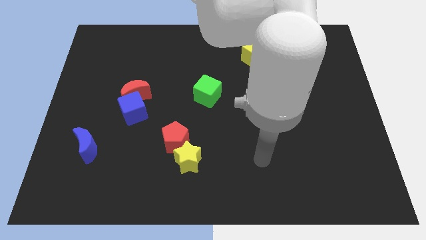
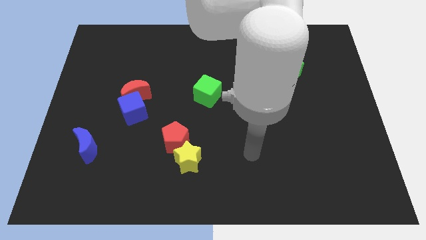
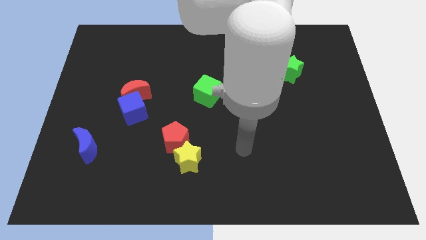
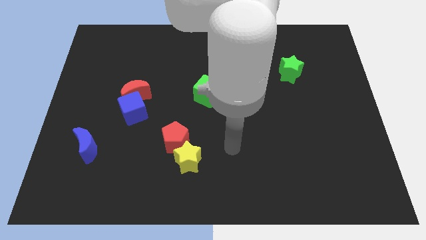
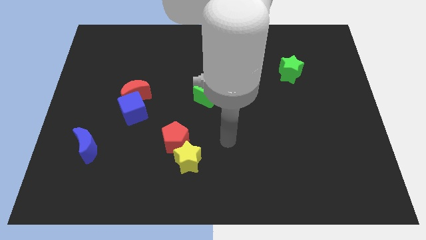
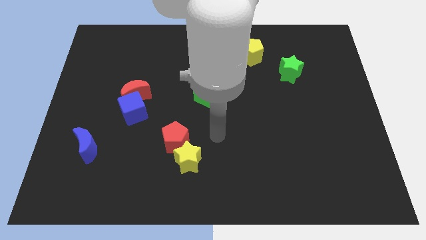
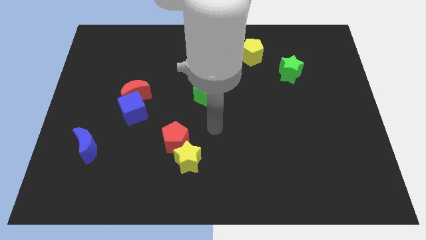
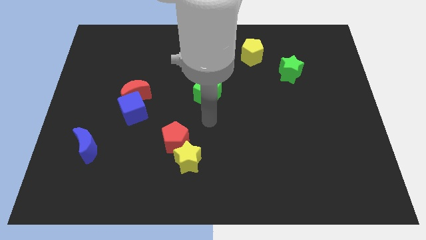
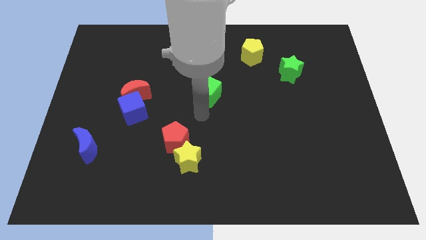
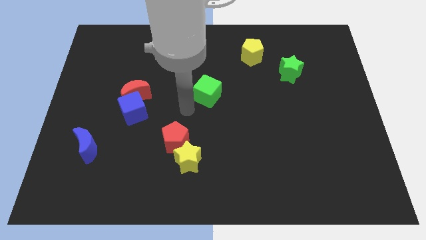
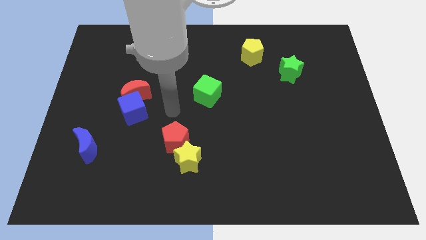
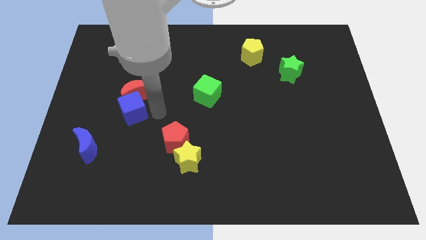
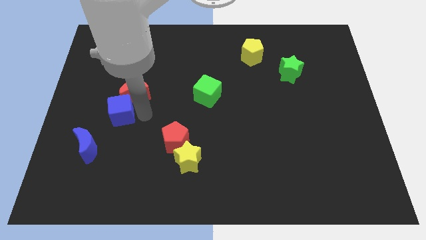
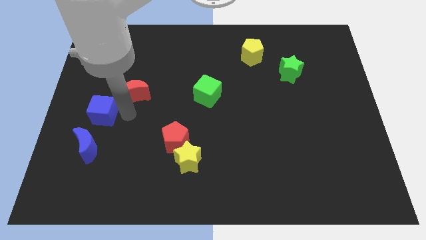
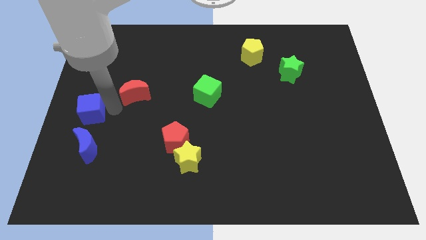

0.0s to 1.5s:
pull the red moon apart from the blue cube

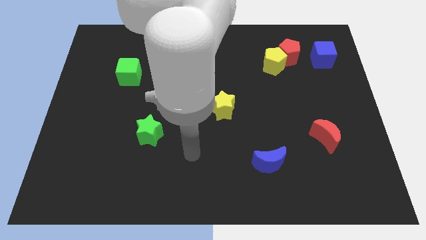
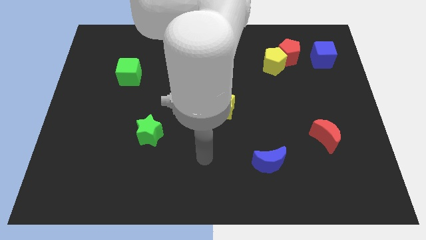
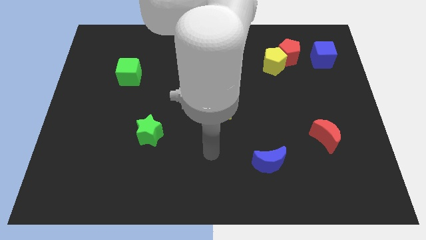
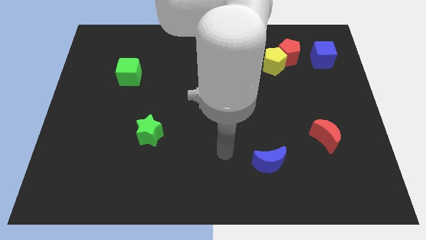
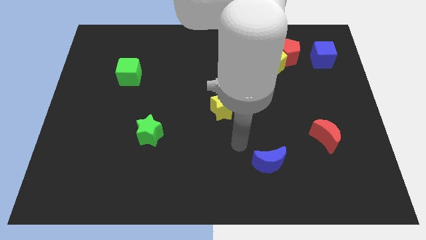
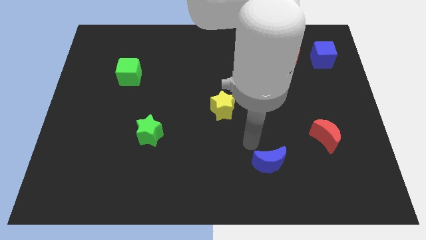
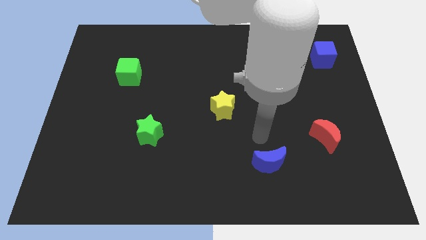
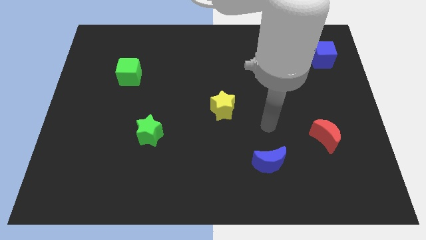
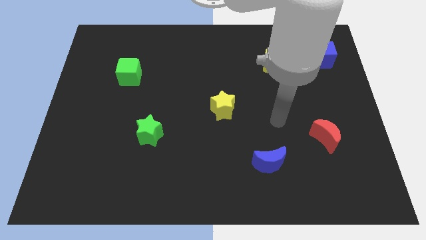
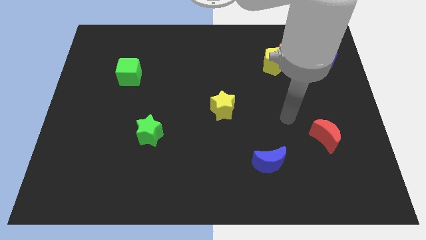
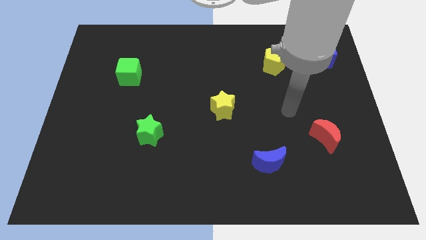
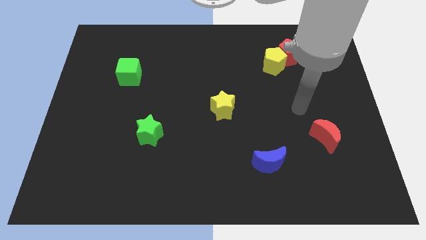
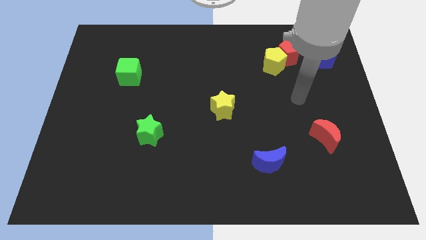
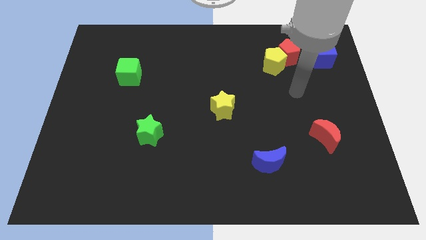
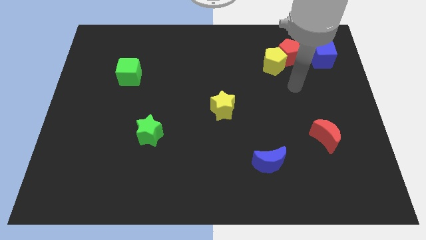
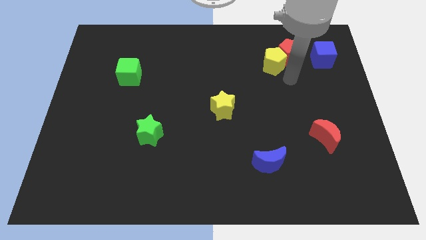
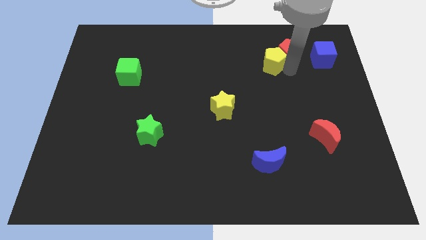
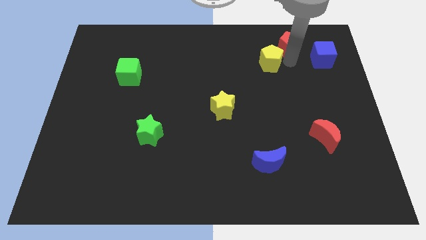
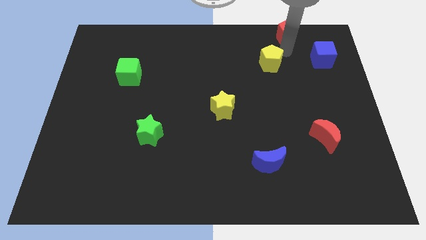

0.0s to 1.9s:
move the yellow pentagon away from the red pentagon

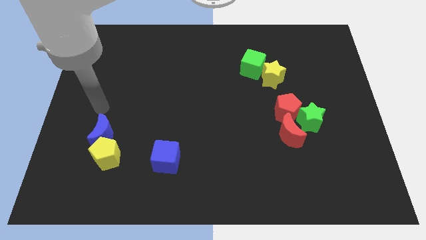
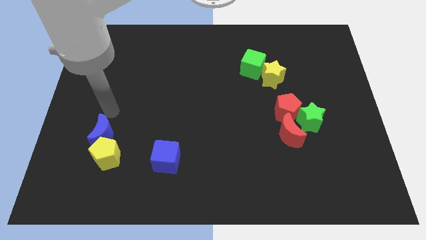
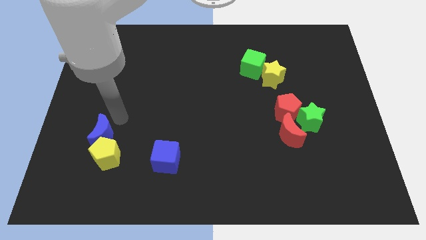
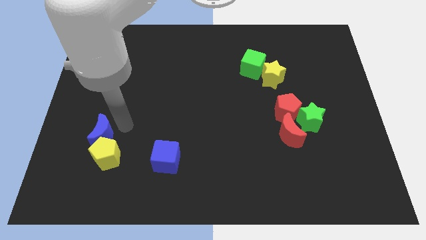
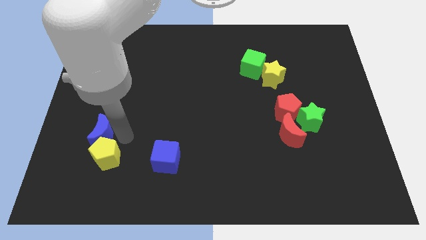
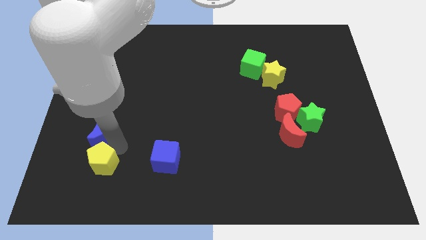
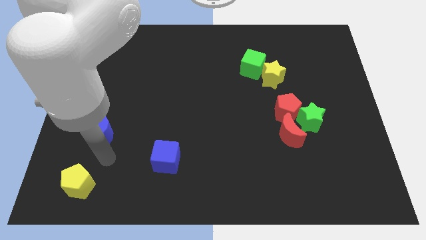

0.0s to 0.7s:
pull the blue moon apart from the yellow pentagon

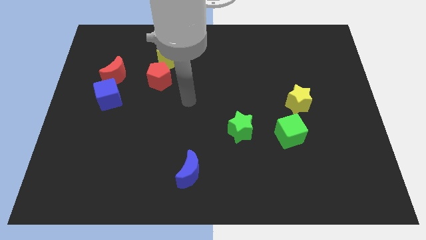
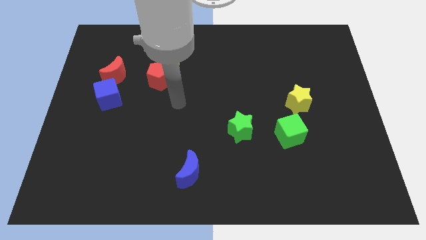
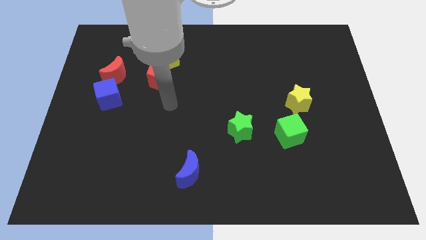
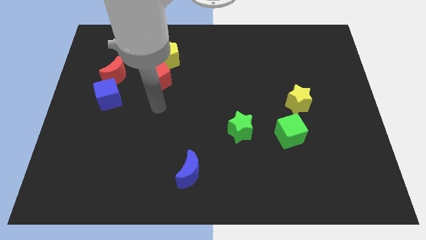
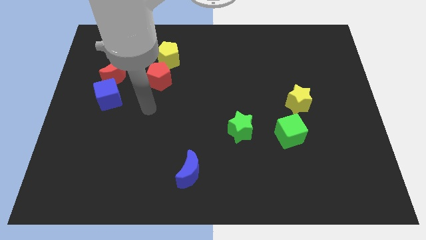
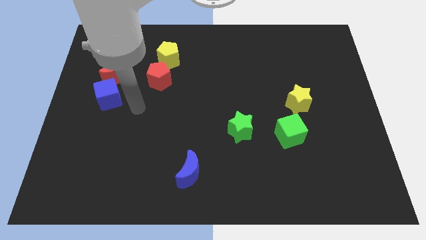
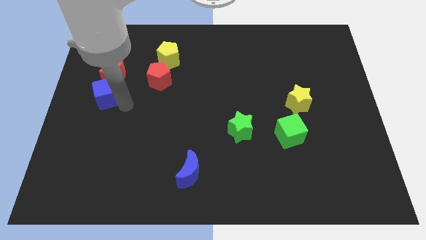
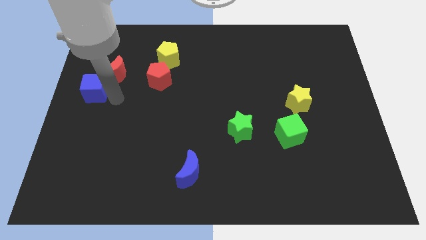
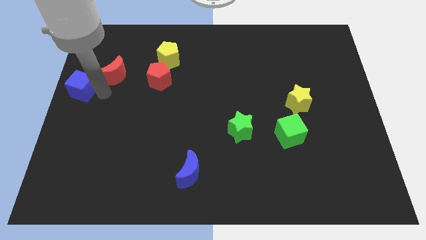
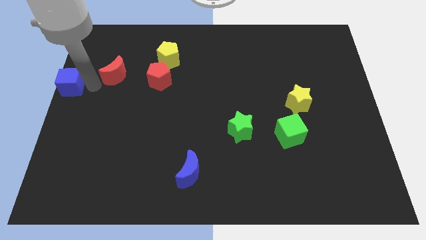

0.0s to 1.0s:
separate the red moon from the blue cube

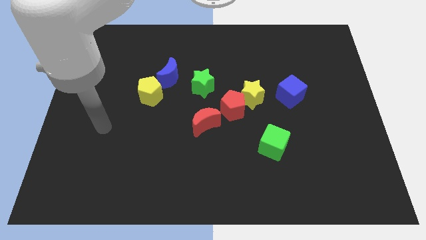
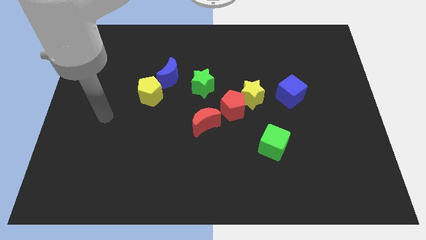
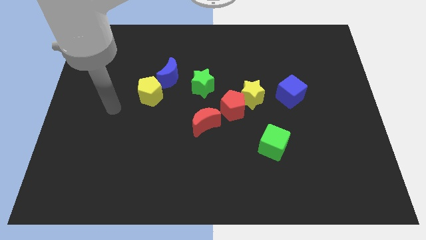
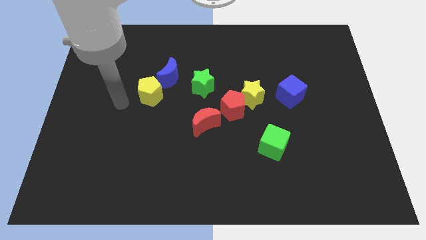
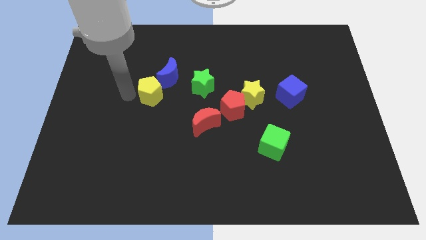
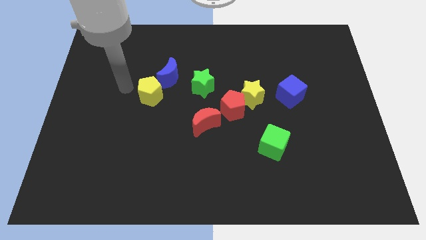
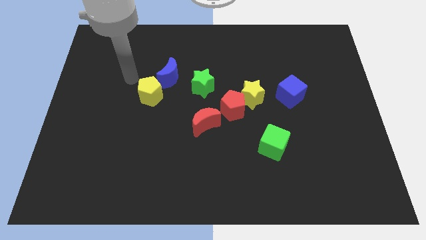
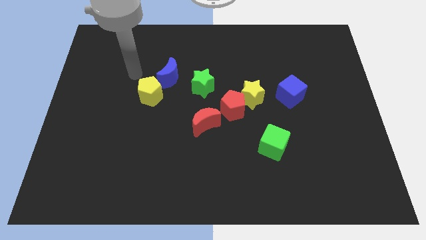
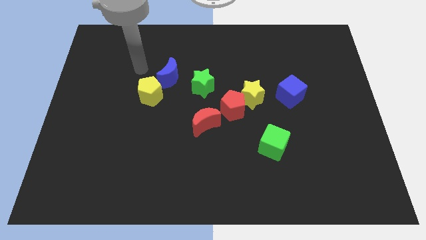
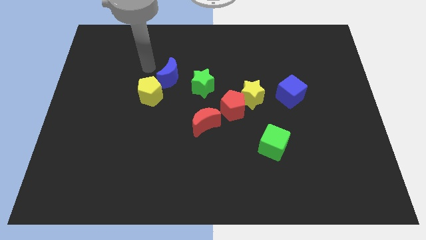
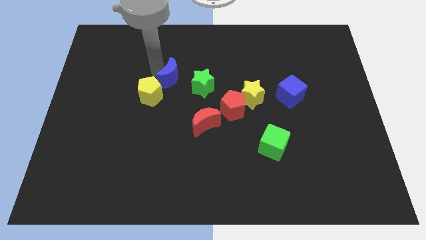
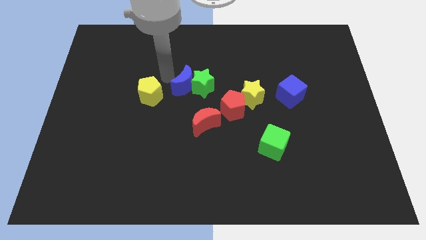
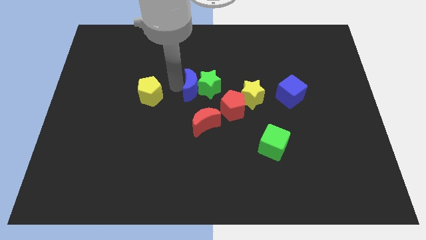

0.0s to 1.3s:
separate the yellow pentagon from the blue moon

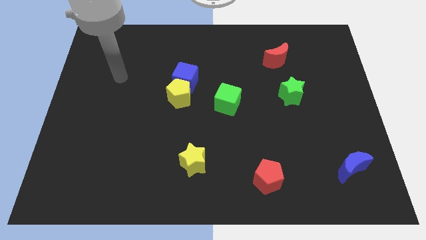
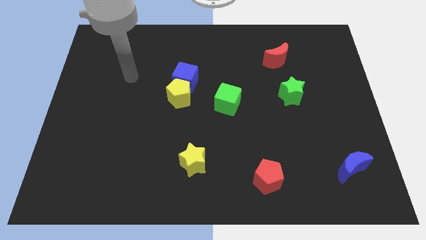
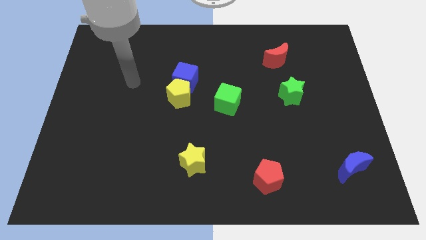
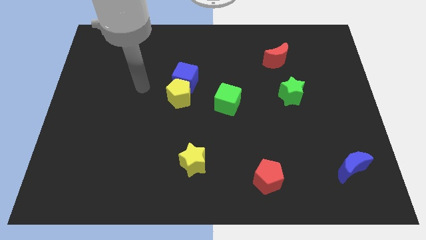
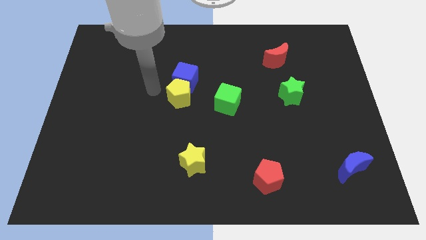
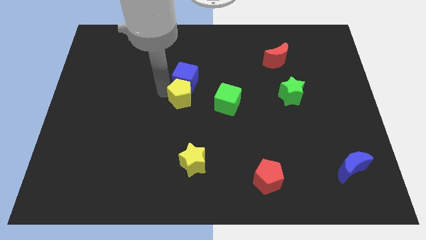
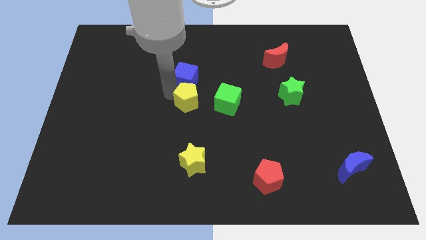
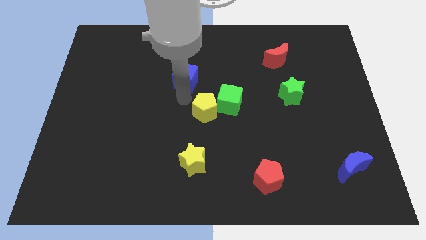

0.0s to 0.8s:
pull the blue cube apart from the yellow pentagon

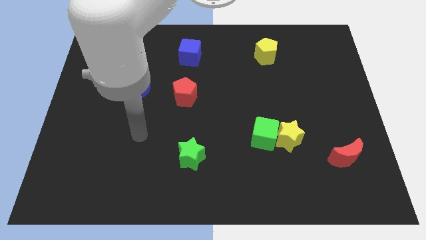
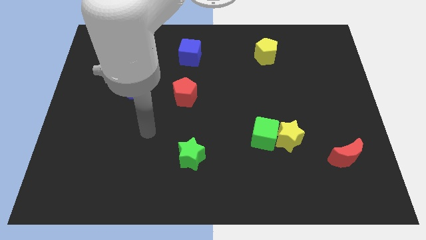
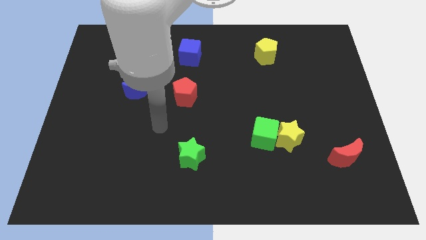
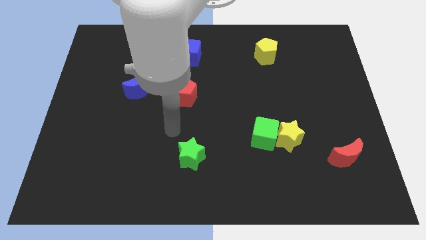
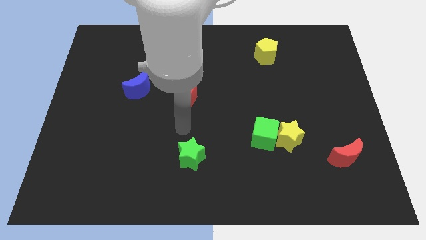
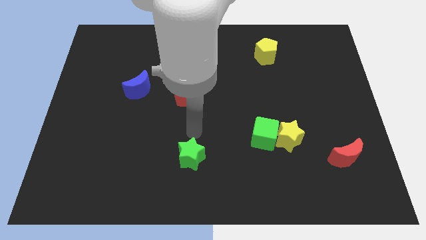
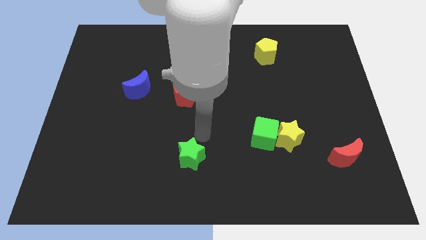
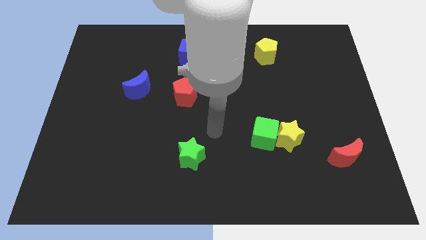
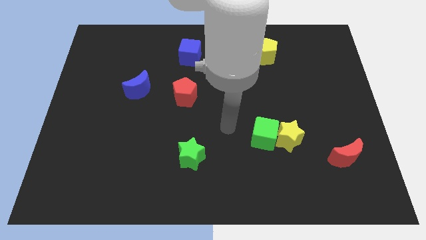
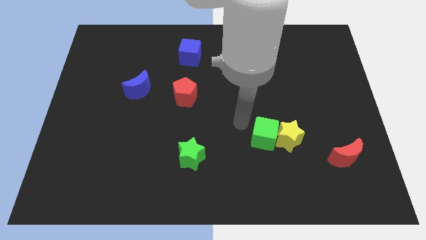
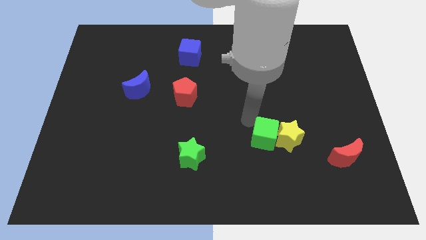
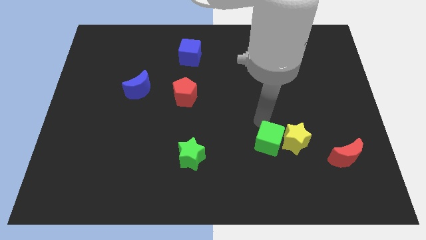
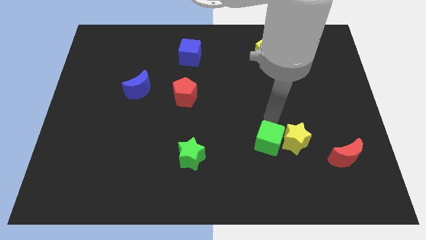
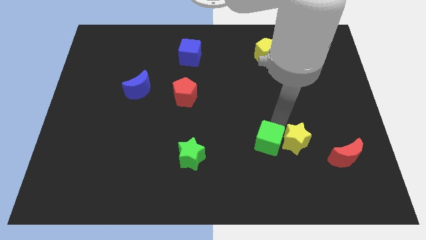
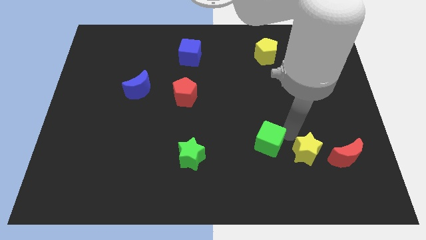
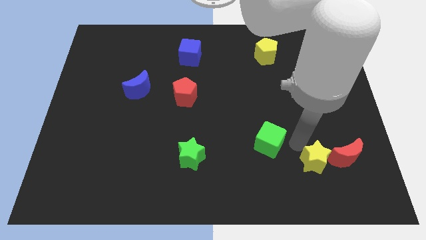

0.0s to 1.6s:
separate the green cube from the yellow star

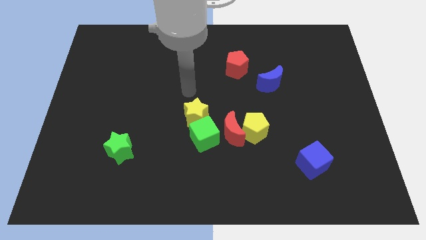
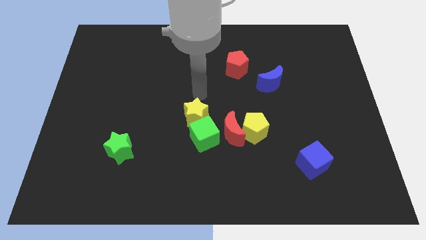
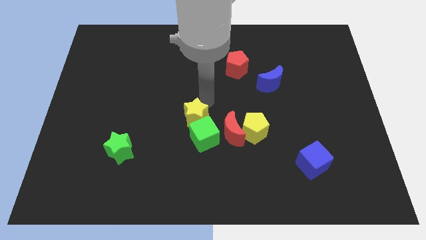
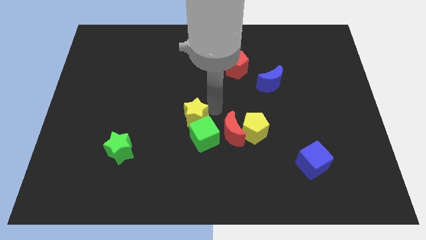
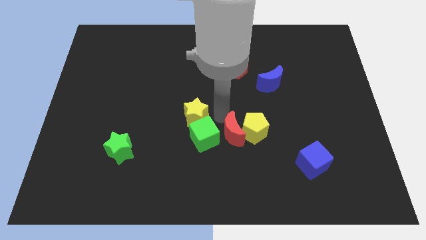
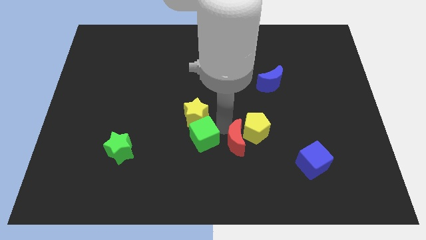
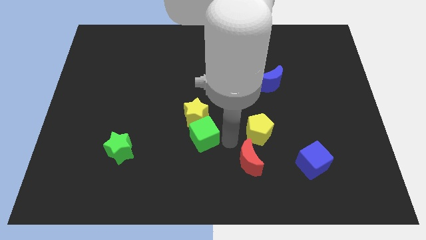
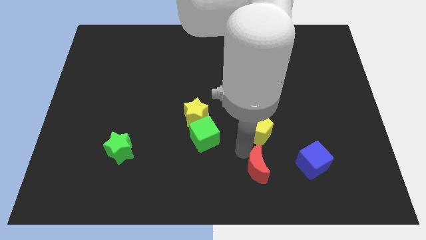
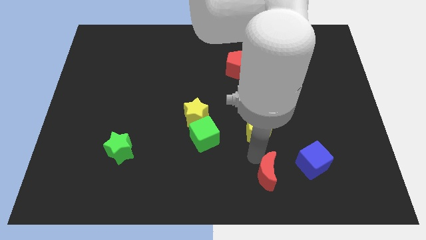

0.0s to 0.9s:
separate the yellow pentagon from the red moon
